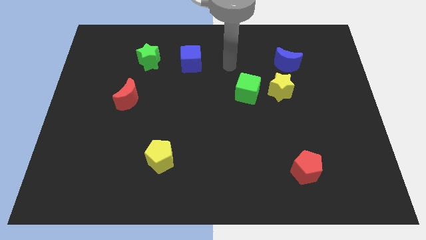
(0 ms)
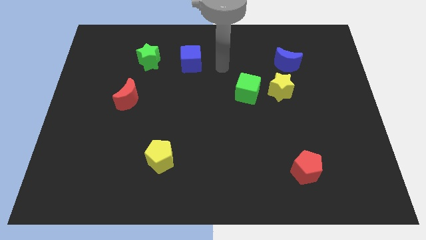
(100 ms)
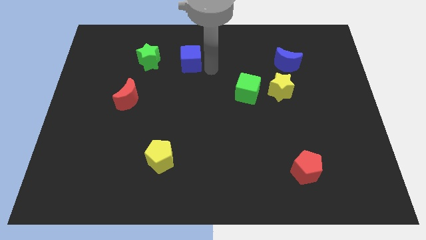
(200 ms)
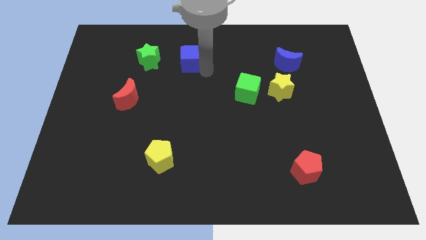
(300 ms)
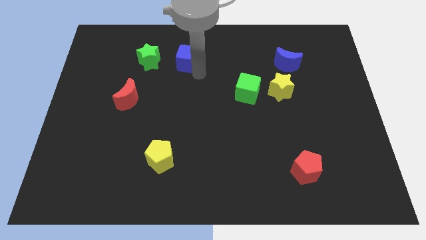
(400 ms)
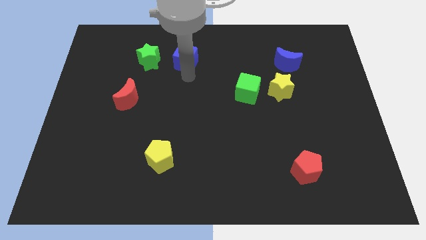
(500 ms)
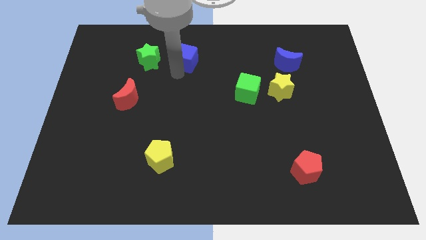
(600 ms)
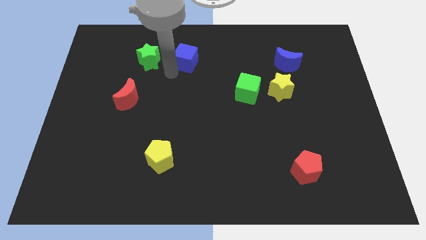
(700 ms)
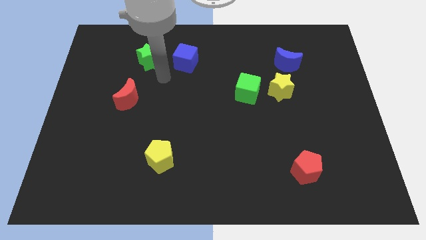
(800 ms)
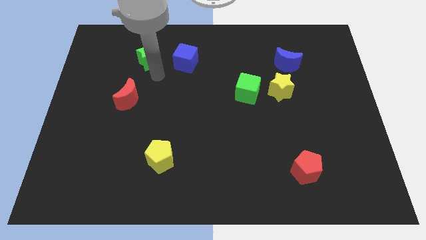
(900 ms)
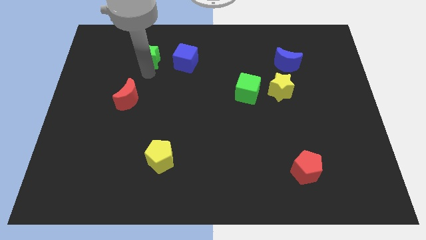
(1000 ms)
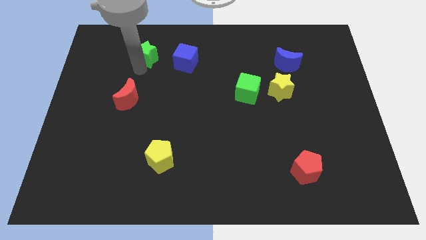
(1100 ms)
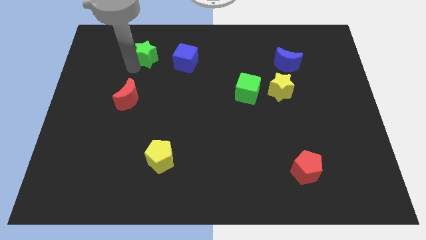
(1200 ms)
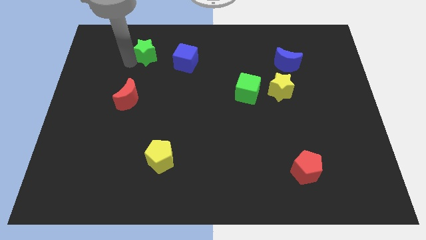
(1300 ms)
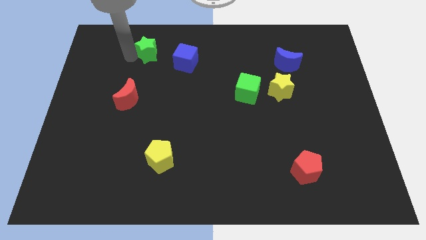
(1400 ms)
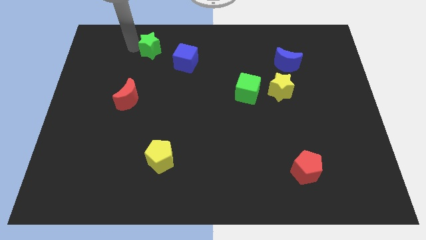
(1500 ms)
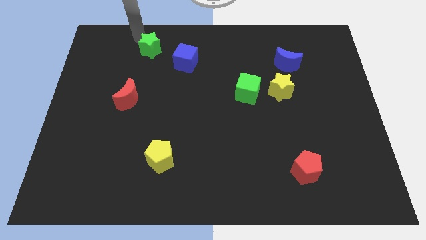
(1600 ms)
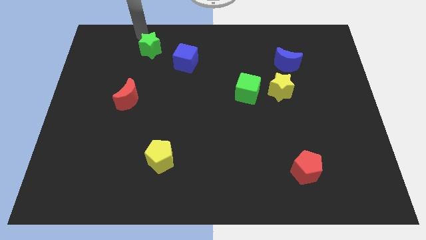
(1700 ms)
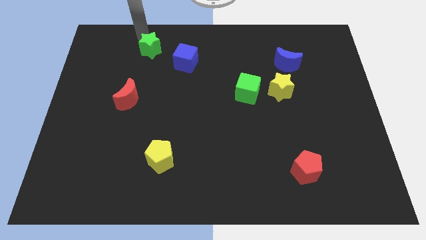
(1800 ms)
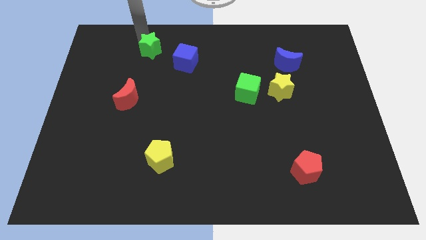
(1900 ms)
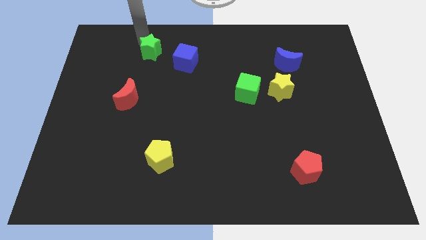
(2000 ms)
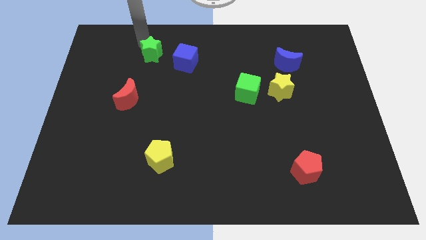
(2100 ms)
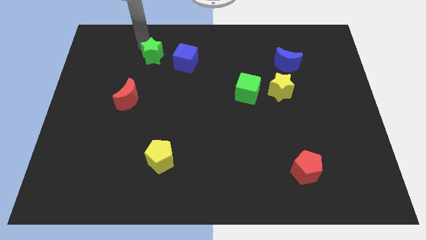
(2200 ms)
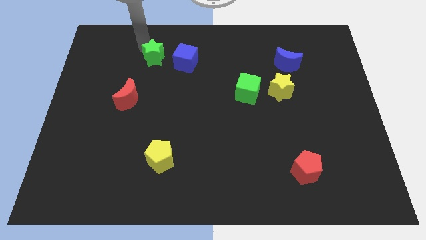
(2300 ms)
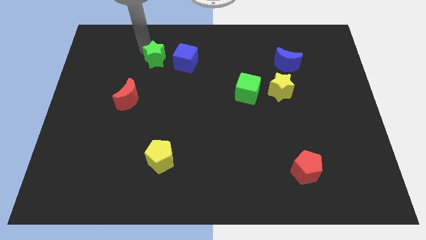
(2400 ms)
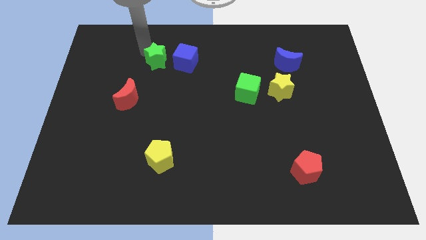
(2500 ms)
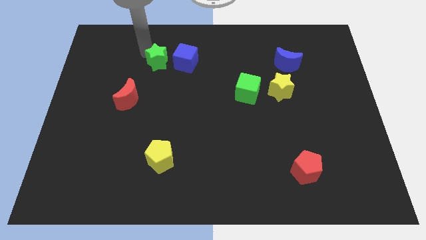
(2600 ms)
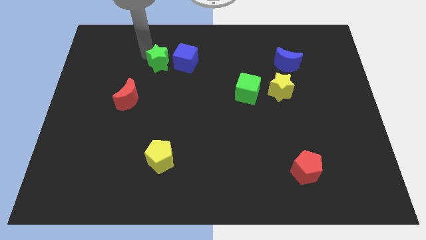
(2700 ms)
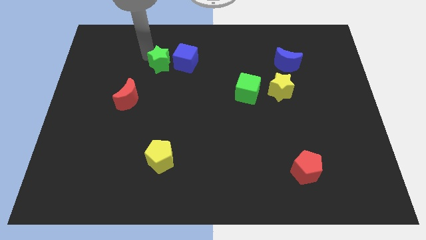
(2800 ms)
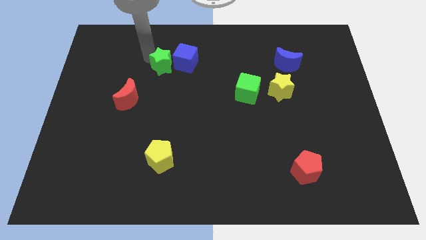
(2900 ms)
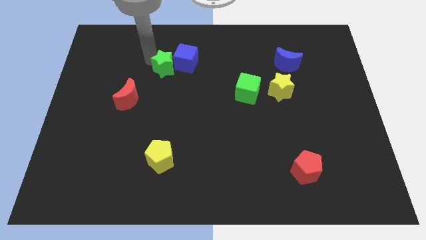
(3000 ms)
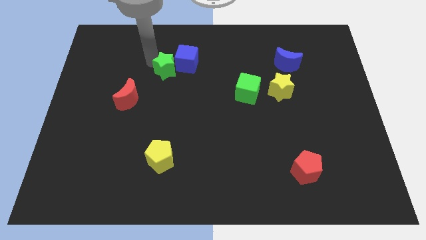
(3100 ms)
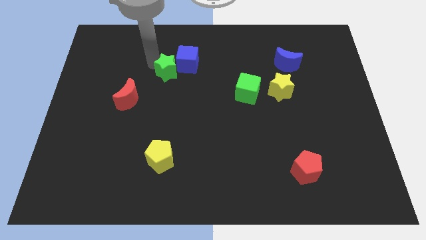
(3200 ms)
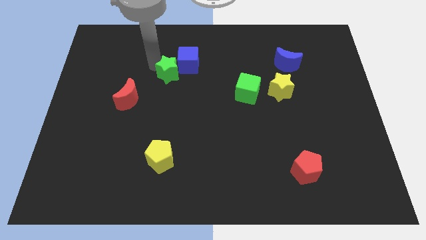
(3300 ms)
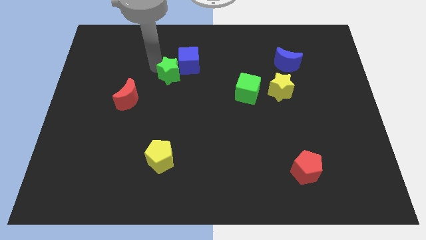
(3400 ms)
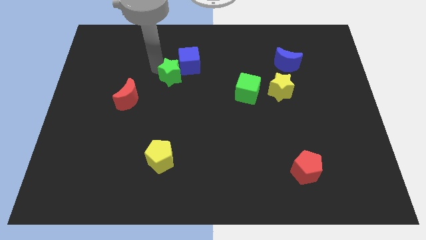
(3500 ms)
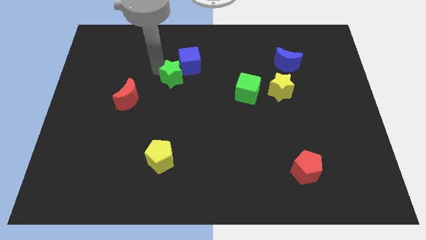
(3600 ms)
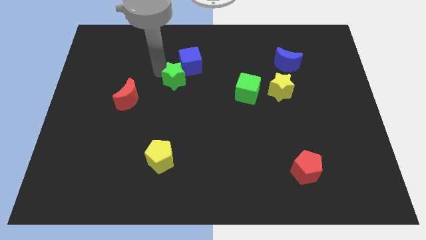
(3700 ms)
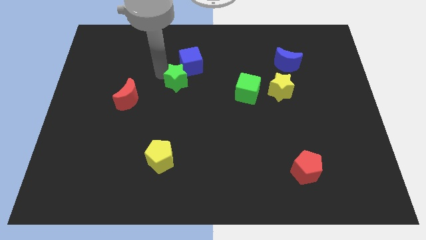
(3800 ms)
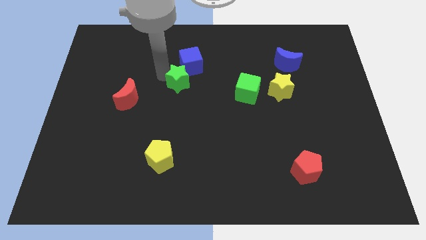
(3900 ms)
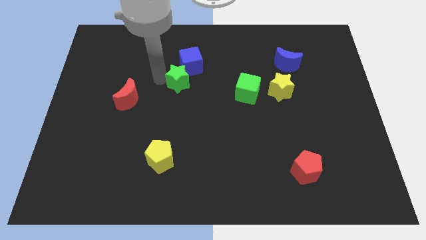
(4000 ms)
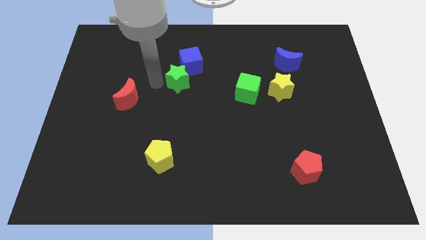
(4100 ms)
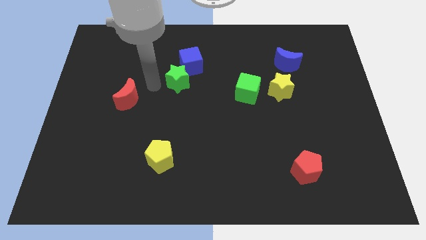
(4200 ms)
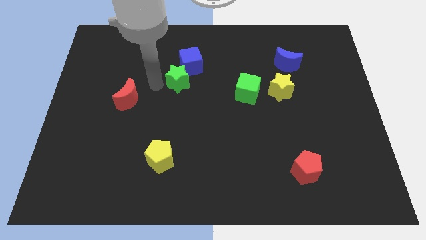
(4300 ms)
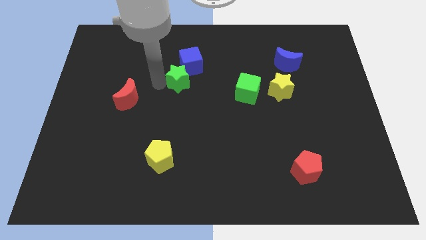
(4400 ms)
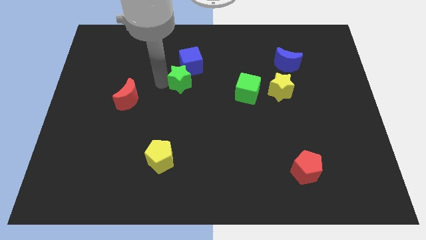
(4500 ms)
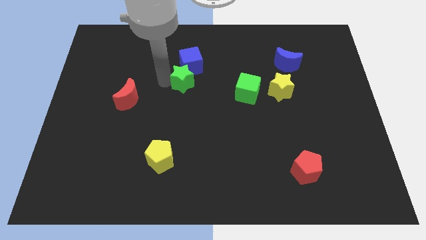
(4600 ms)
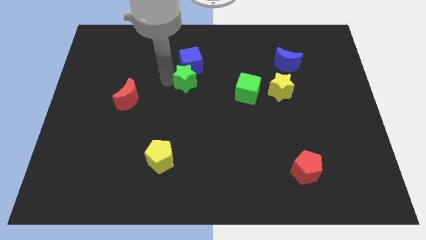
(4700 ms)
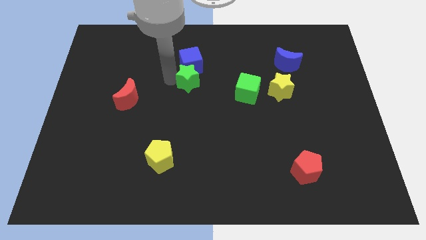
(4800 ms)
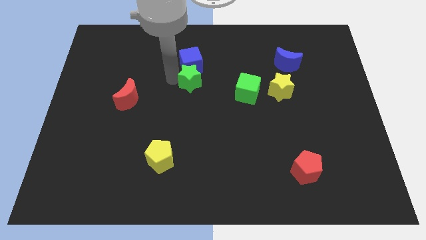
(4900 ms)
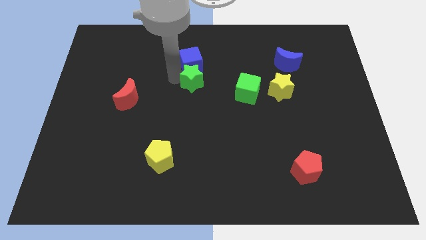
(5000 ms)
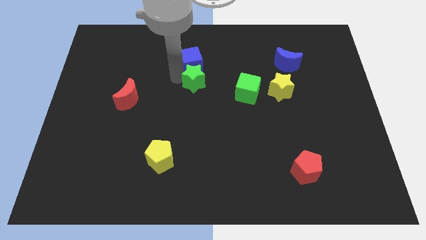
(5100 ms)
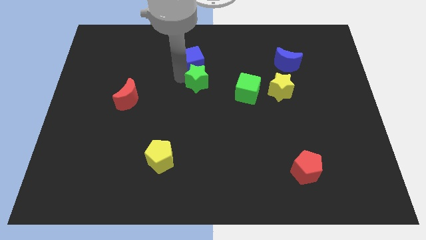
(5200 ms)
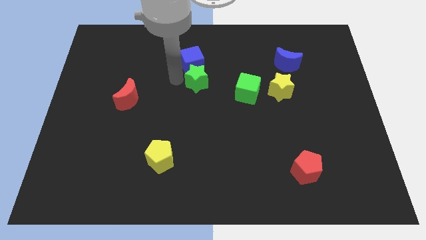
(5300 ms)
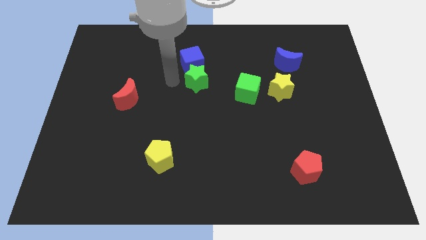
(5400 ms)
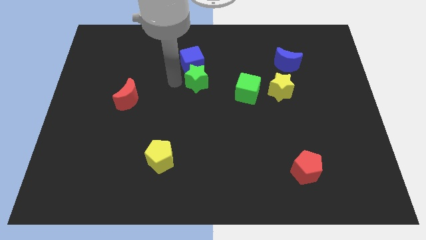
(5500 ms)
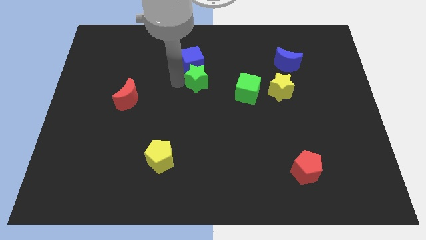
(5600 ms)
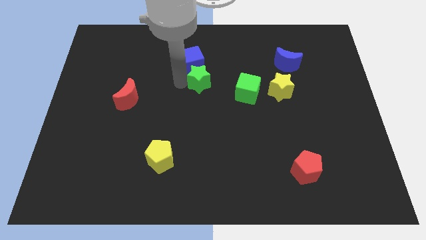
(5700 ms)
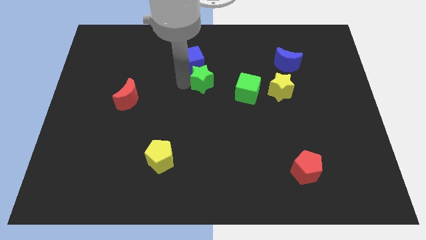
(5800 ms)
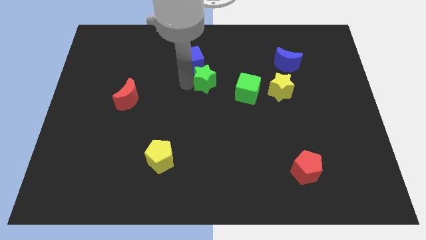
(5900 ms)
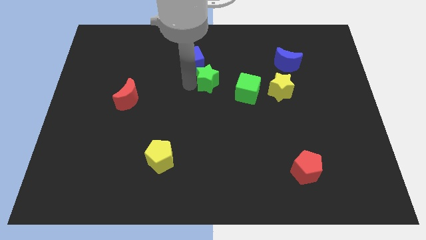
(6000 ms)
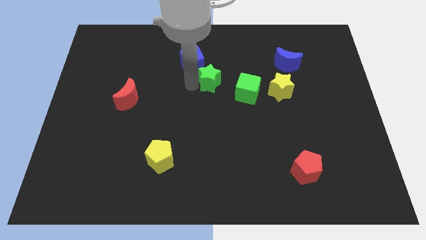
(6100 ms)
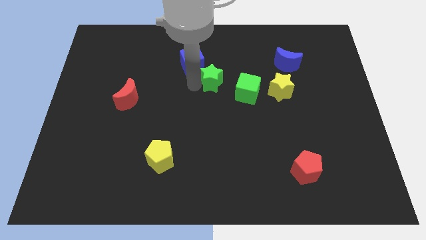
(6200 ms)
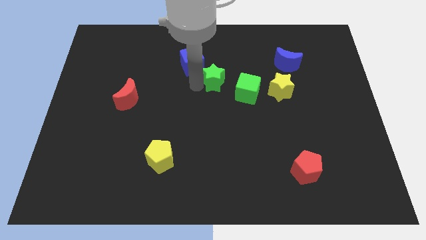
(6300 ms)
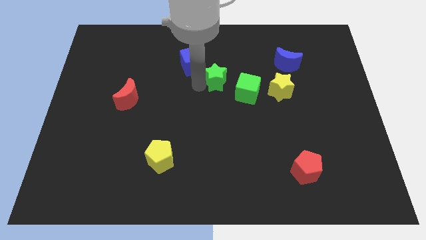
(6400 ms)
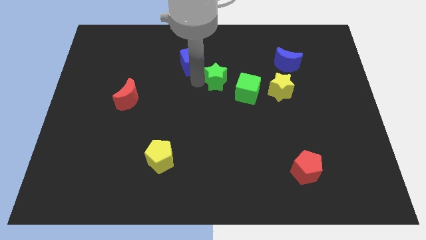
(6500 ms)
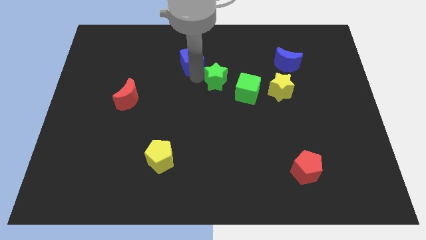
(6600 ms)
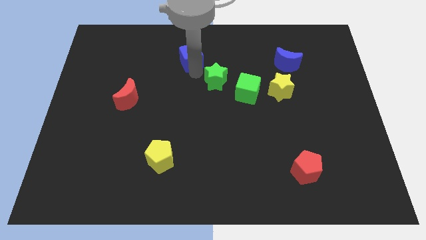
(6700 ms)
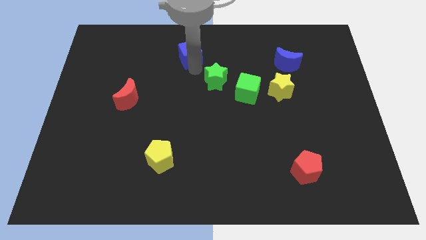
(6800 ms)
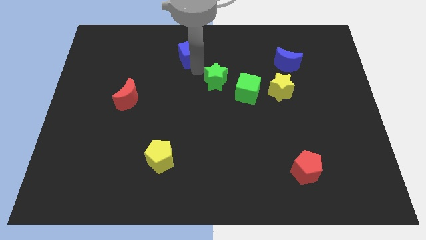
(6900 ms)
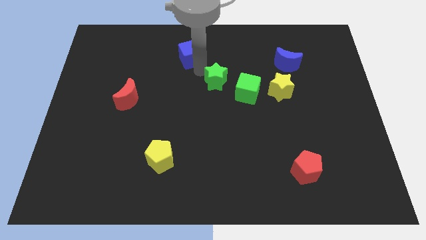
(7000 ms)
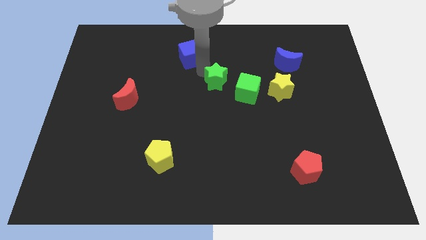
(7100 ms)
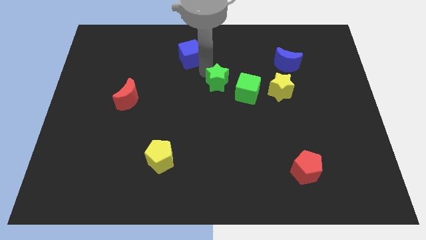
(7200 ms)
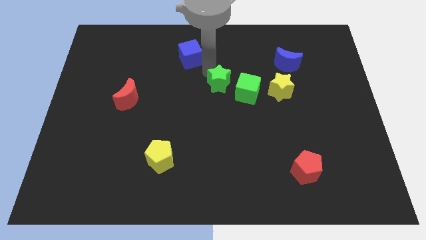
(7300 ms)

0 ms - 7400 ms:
put the green star left of the yellow star
